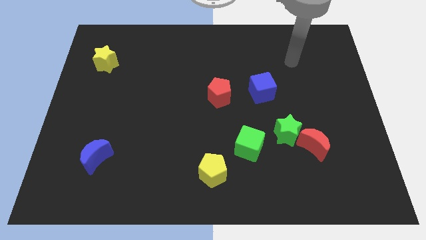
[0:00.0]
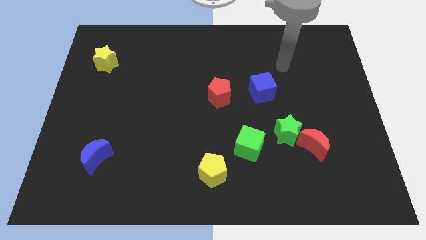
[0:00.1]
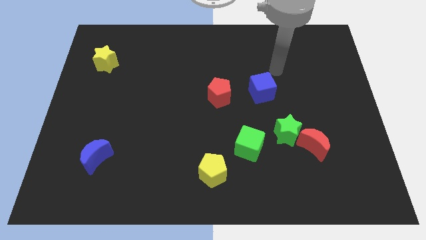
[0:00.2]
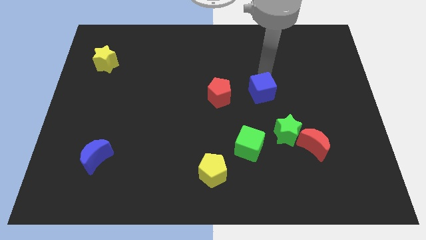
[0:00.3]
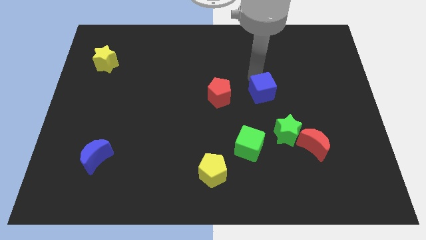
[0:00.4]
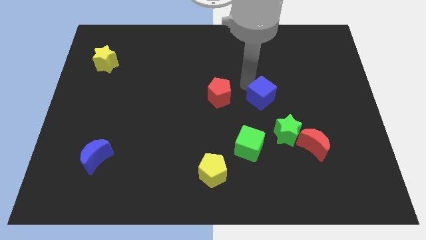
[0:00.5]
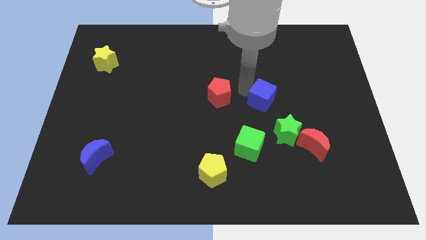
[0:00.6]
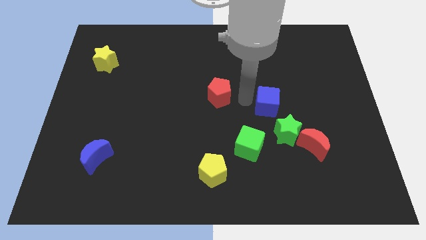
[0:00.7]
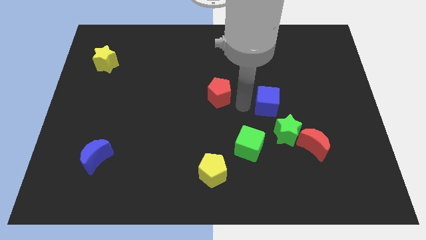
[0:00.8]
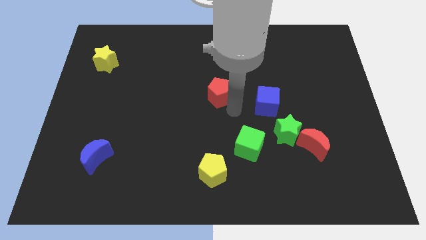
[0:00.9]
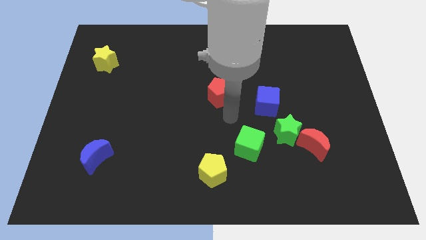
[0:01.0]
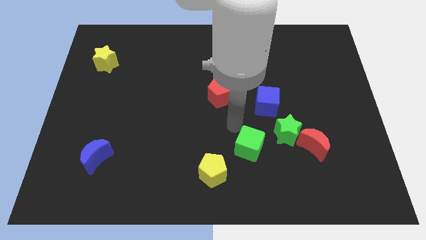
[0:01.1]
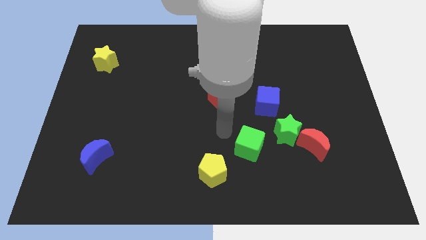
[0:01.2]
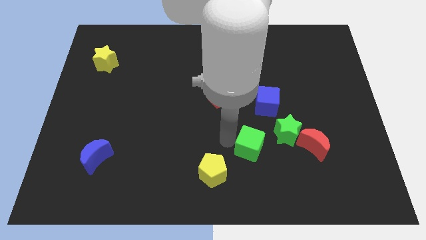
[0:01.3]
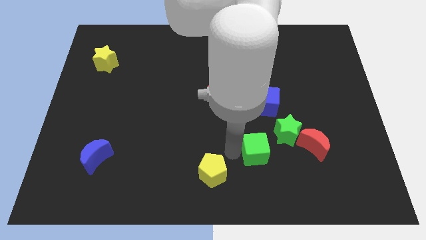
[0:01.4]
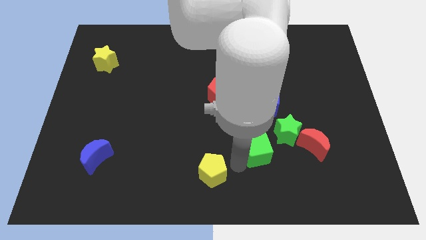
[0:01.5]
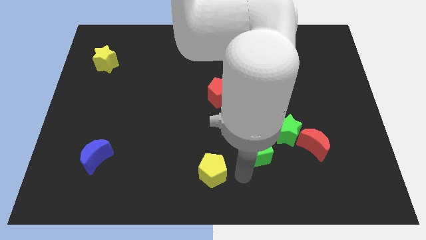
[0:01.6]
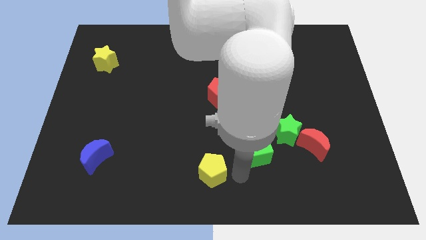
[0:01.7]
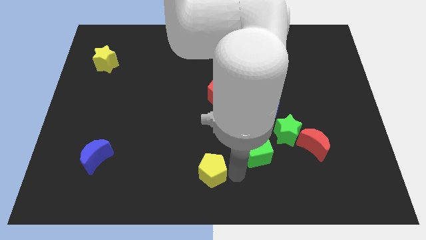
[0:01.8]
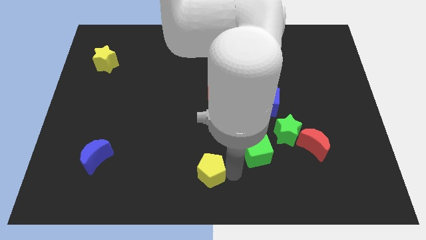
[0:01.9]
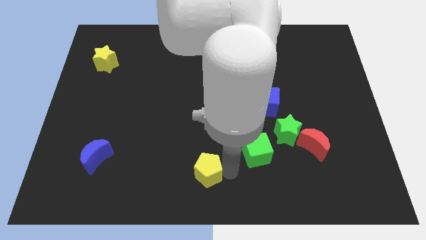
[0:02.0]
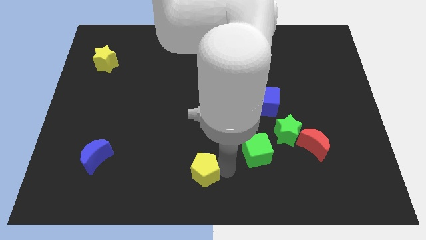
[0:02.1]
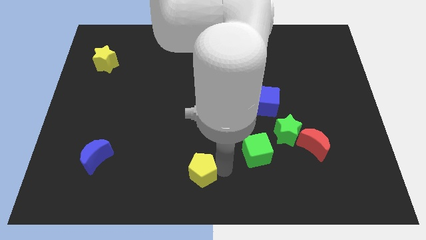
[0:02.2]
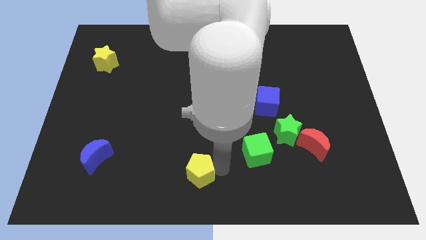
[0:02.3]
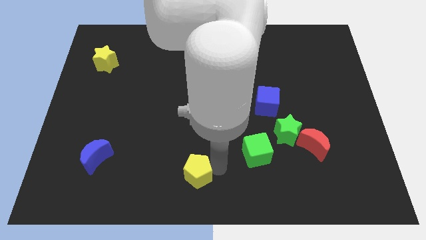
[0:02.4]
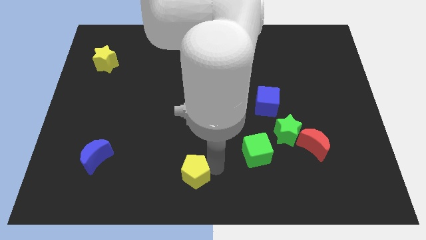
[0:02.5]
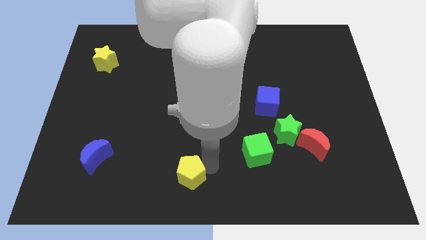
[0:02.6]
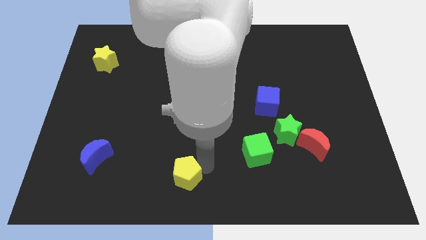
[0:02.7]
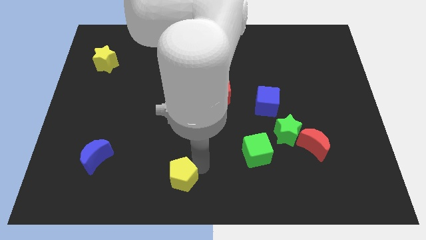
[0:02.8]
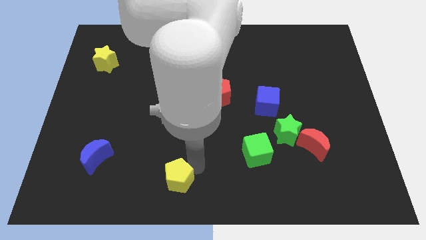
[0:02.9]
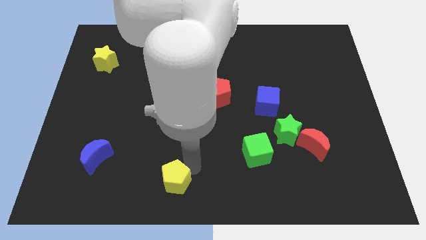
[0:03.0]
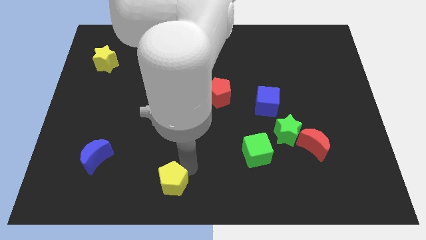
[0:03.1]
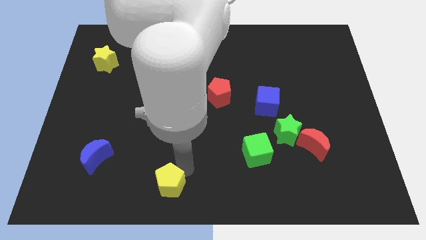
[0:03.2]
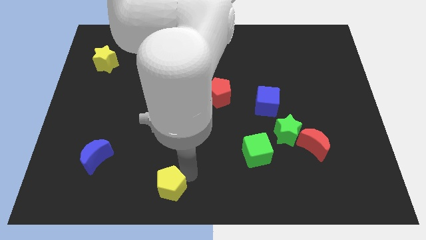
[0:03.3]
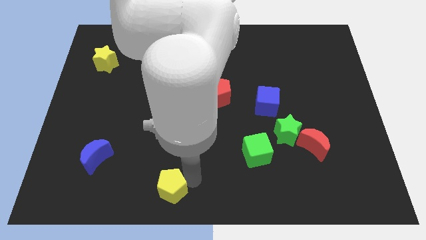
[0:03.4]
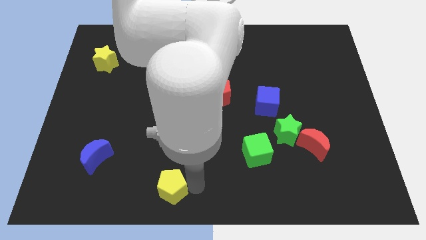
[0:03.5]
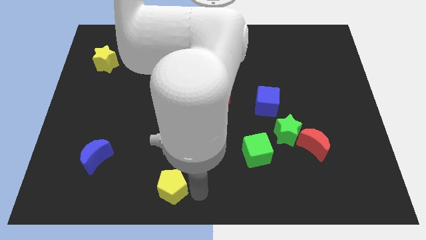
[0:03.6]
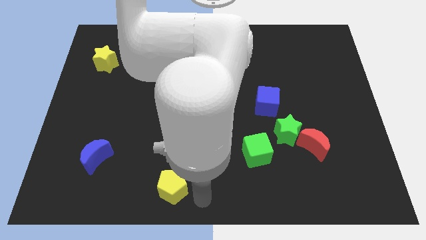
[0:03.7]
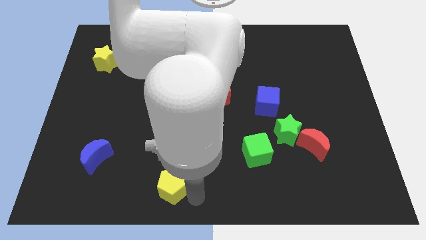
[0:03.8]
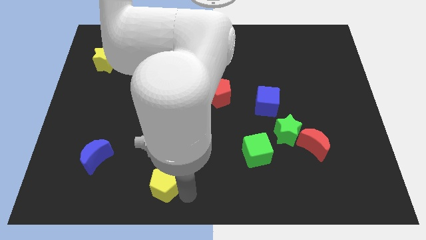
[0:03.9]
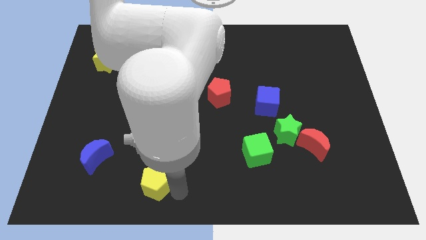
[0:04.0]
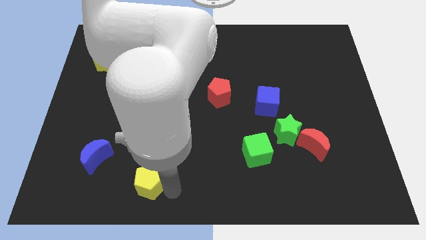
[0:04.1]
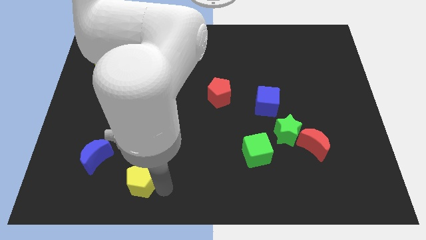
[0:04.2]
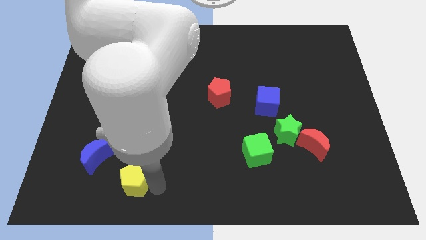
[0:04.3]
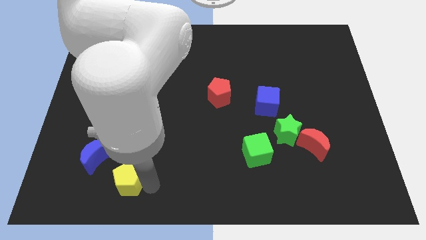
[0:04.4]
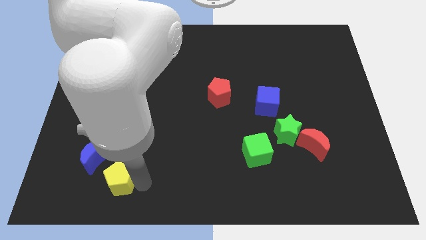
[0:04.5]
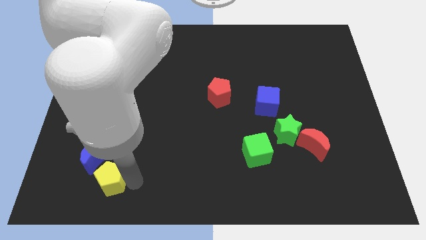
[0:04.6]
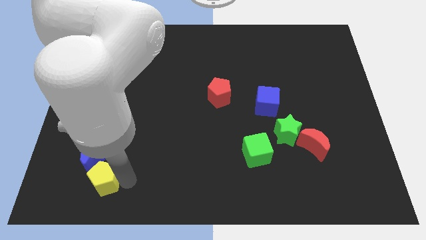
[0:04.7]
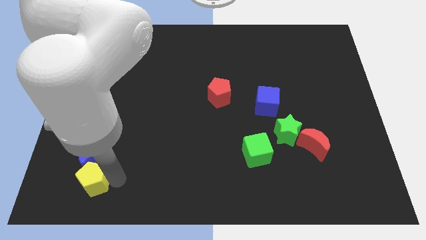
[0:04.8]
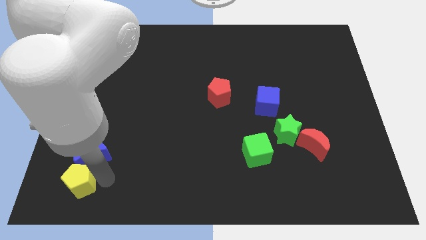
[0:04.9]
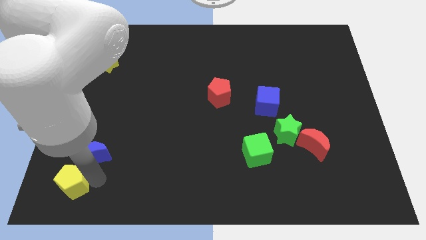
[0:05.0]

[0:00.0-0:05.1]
put the yellow pentagon to the bottom left of the board
